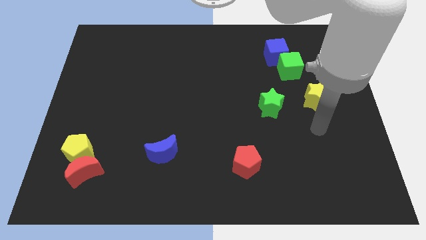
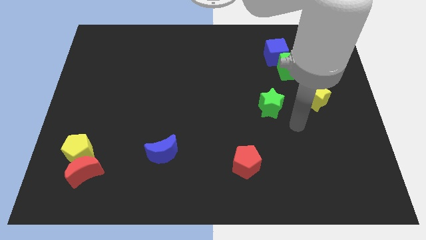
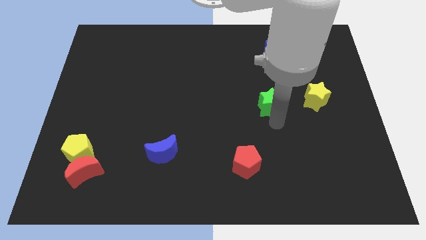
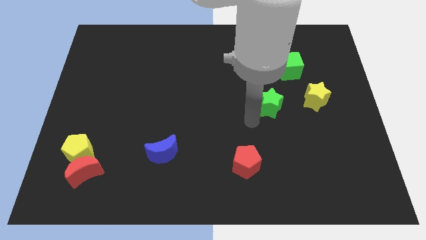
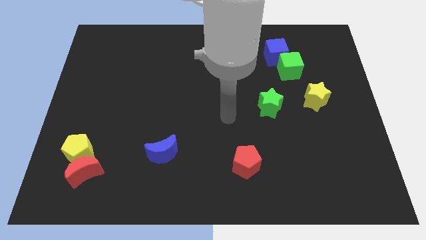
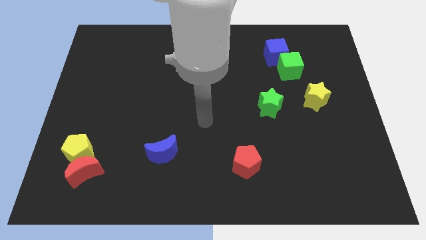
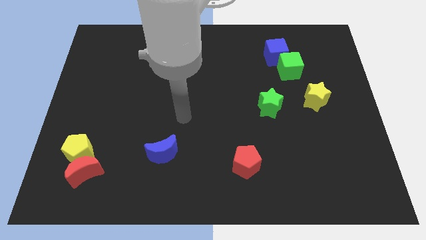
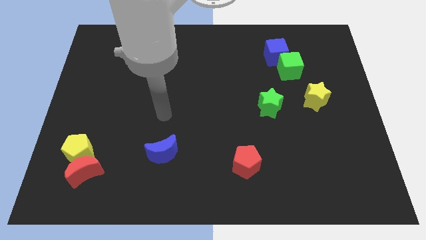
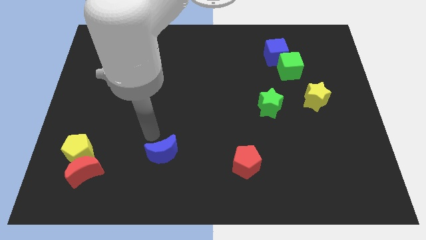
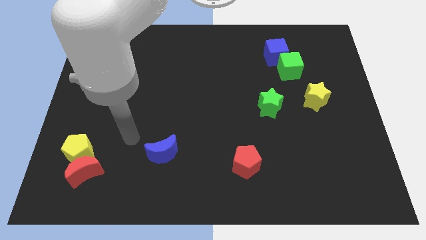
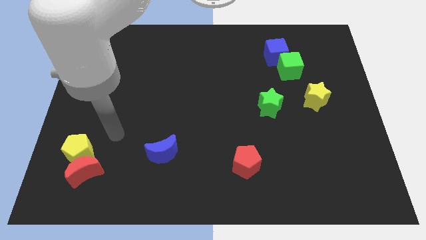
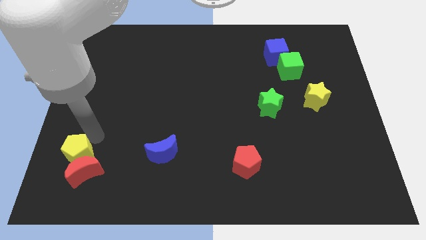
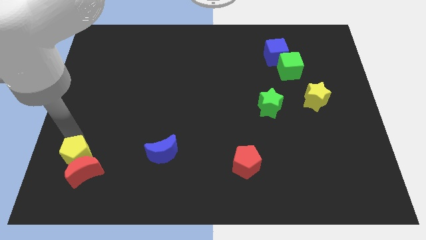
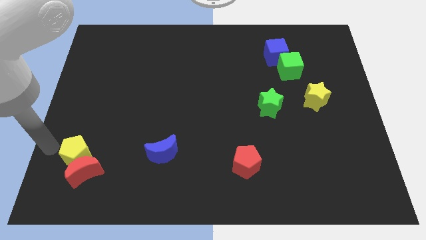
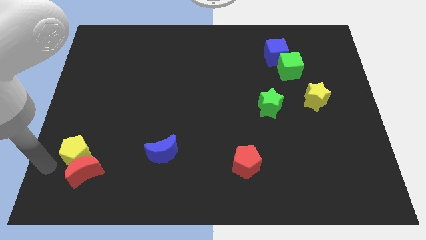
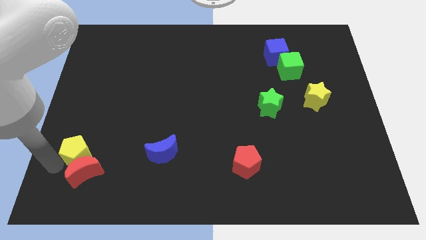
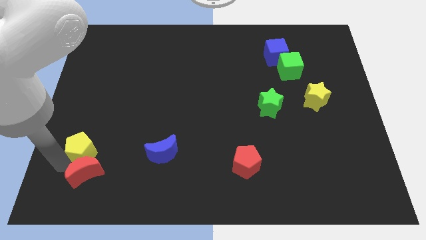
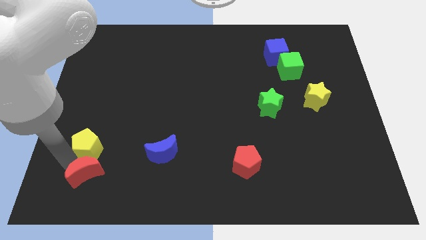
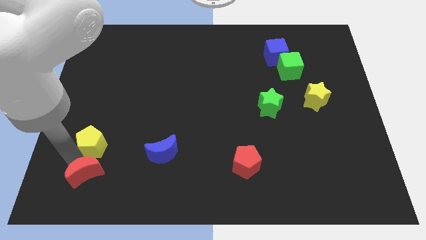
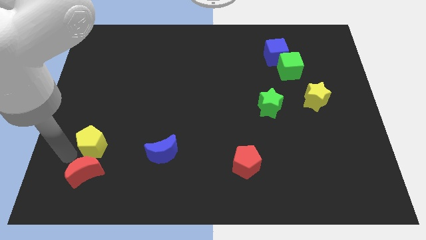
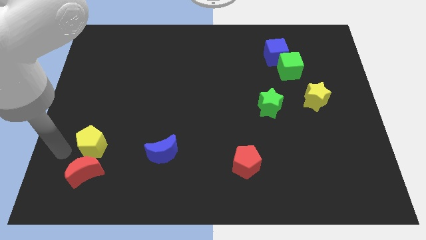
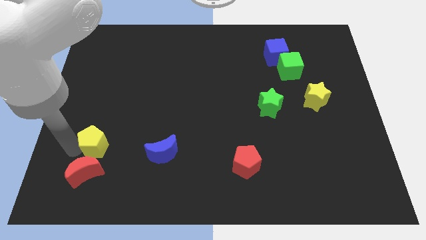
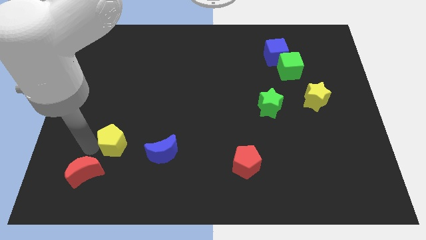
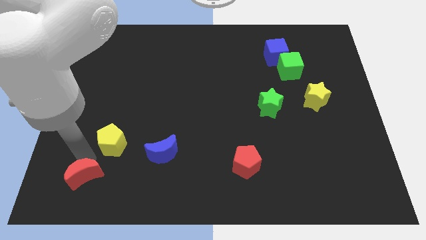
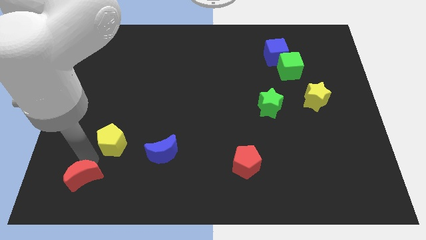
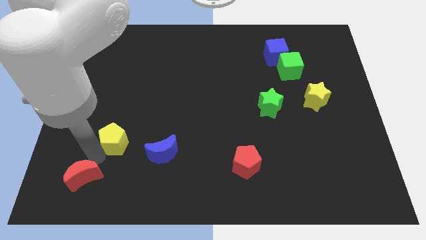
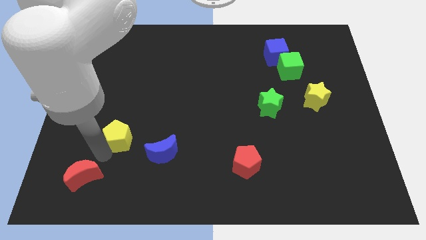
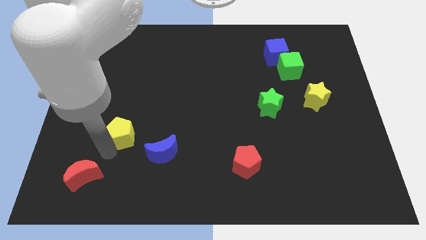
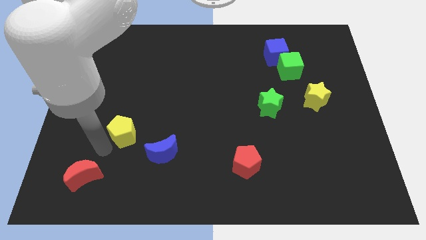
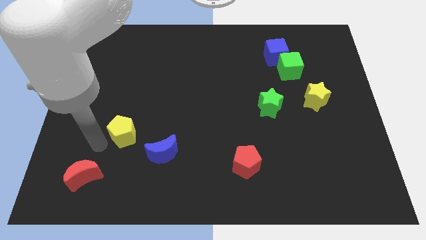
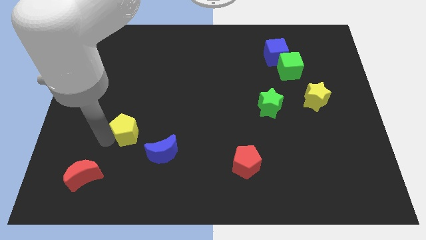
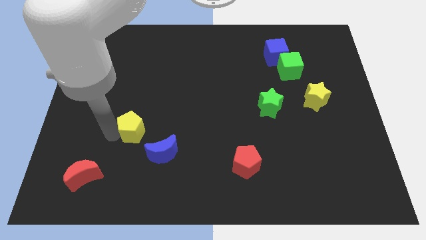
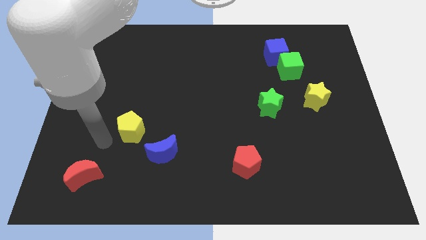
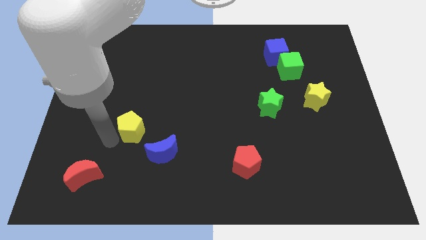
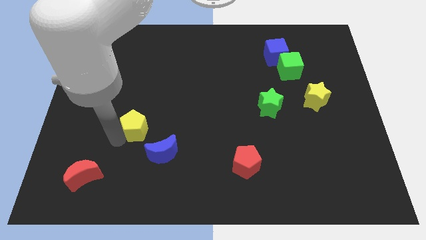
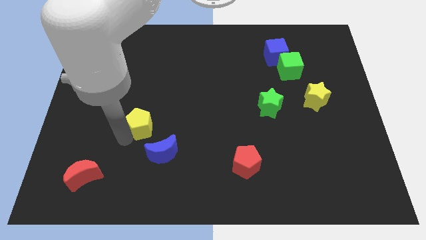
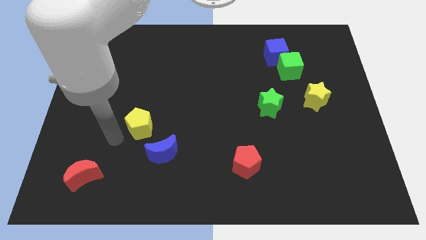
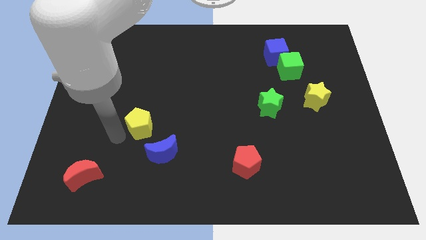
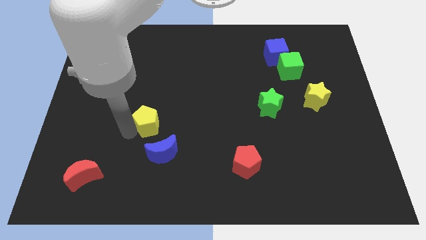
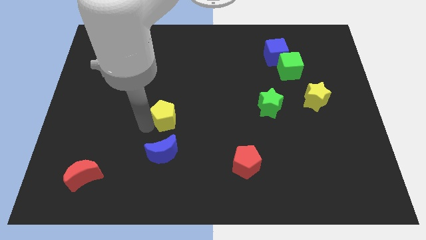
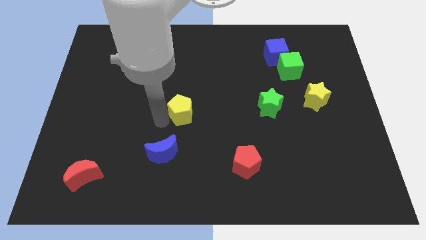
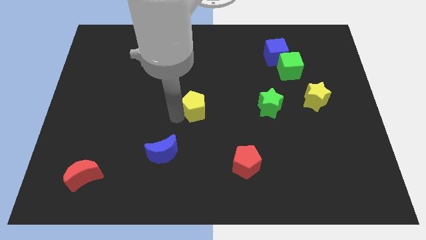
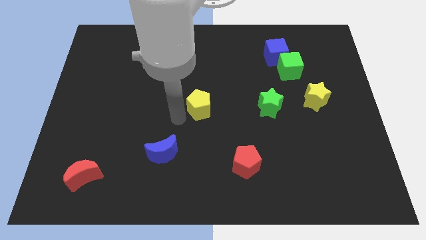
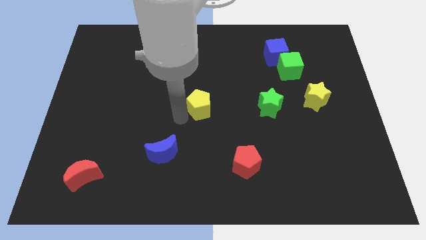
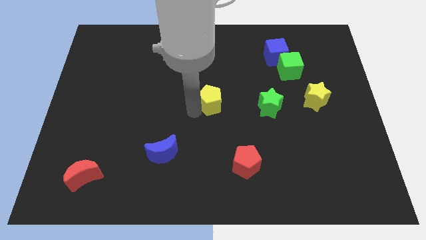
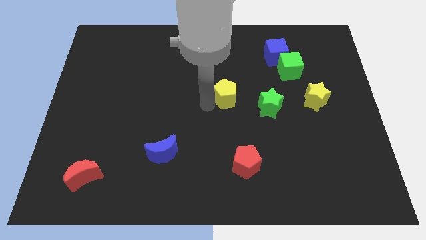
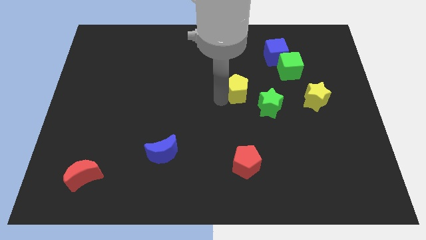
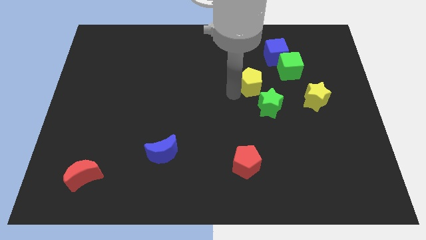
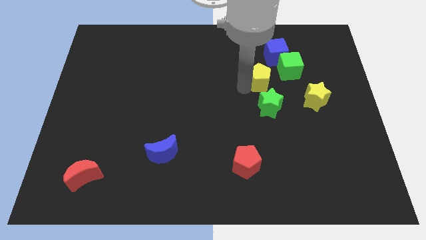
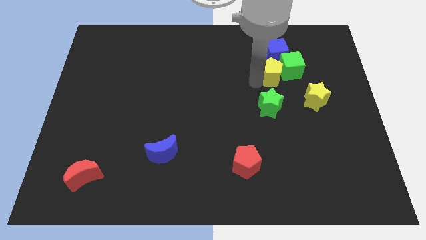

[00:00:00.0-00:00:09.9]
slide the yellow pentagon to the green cube

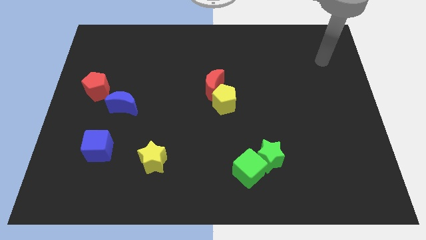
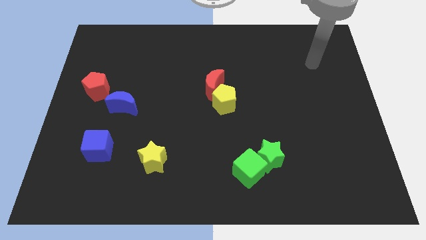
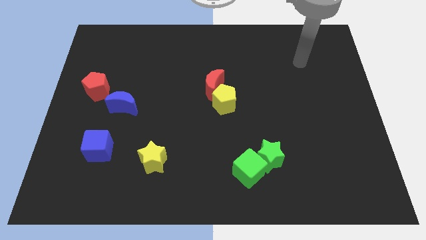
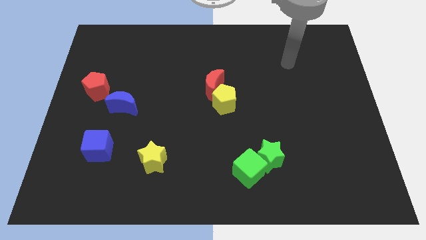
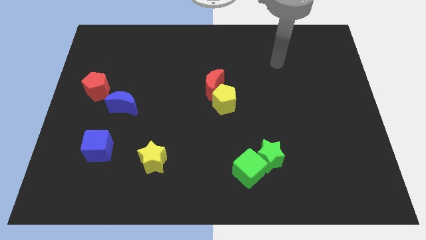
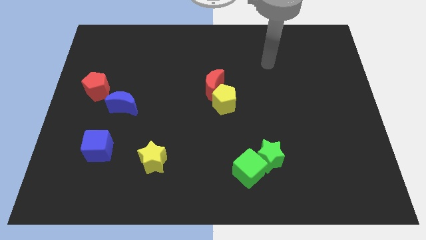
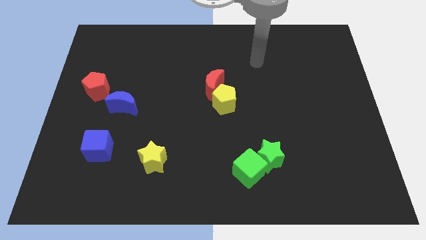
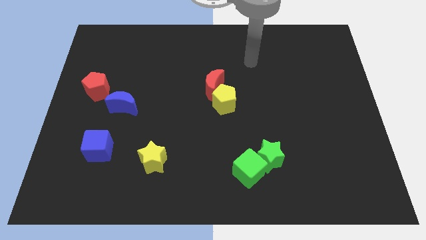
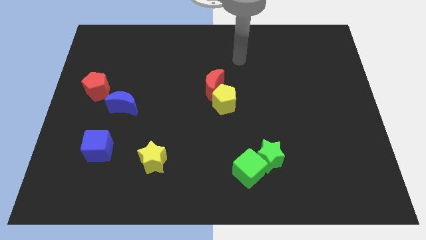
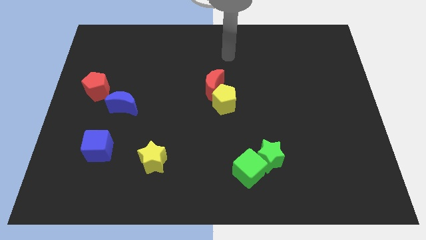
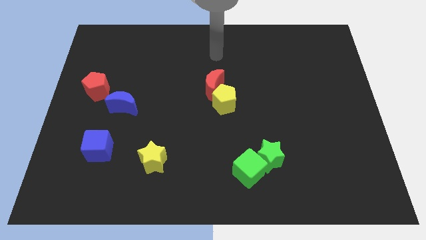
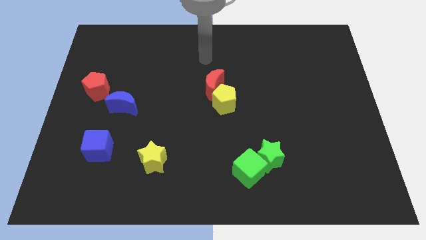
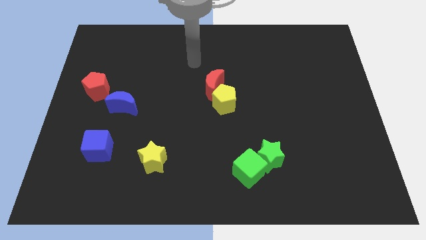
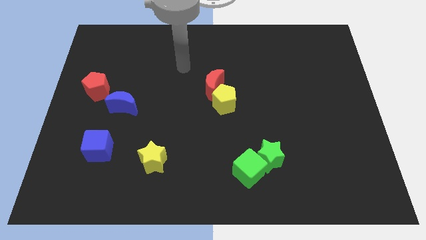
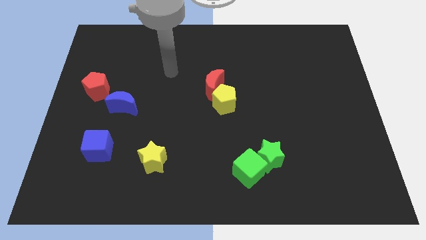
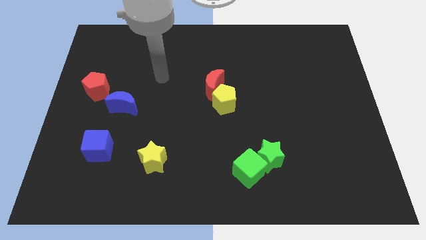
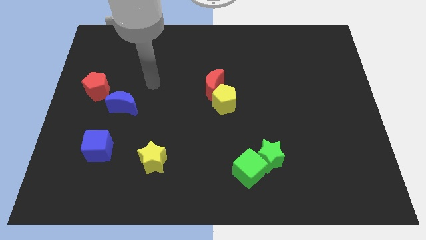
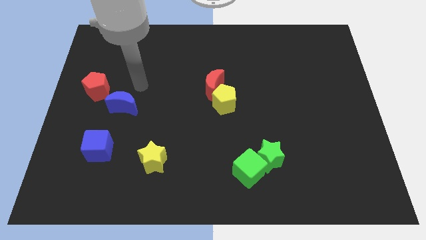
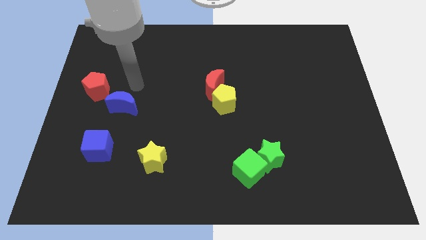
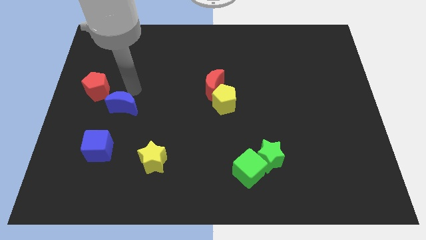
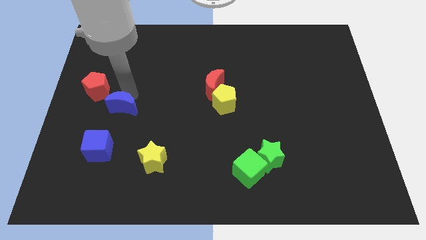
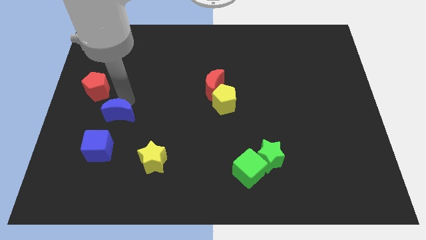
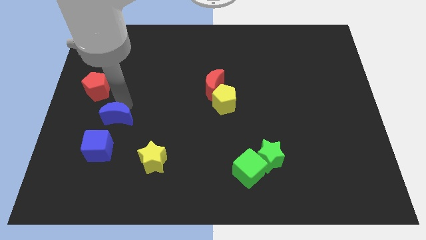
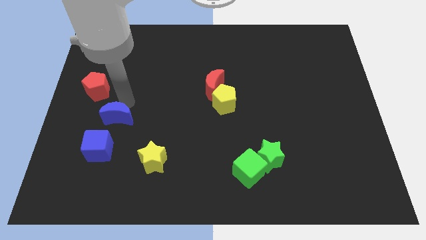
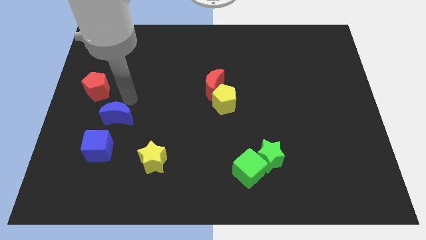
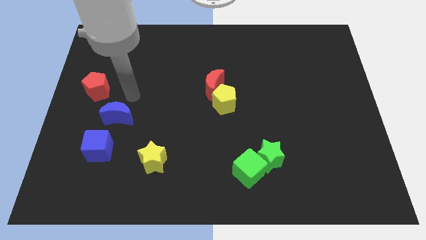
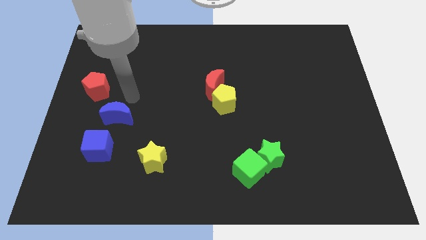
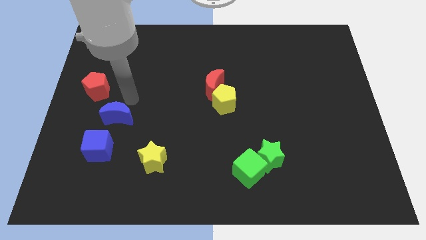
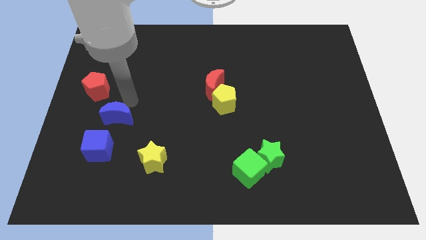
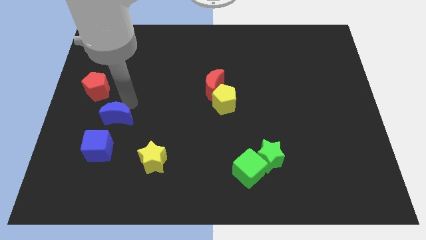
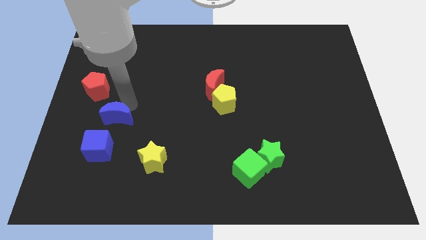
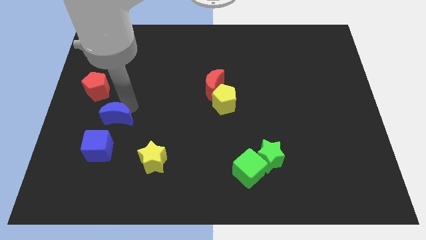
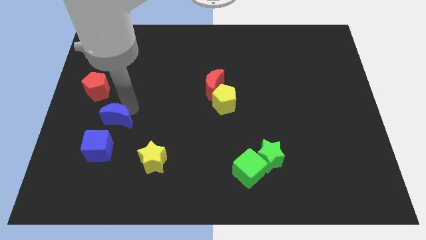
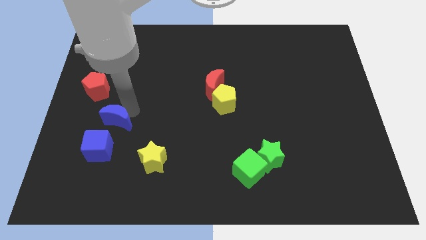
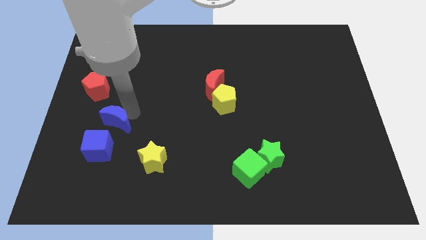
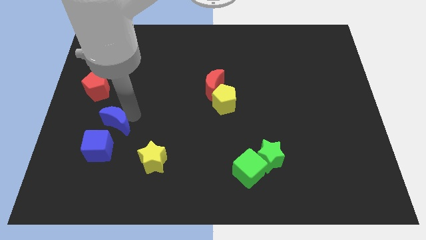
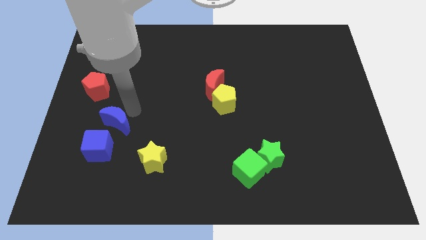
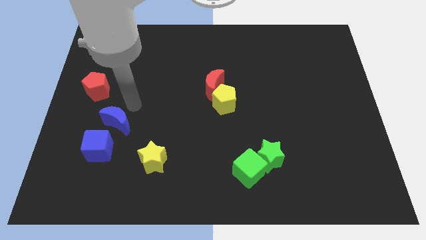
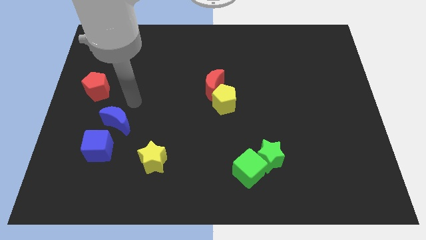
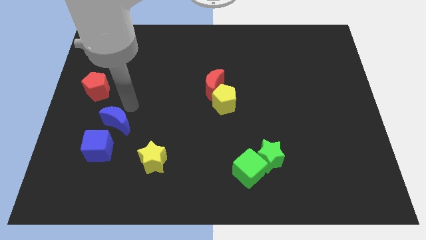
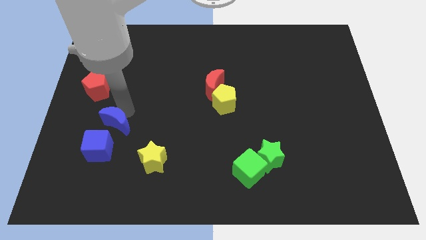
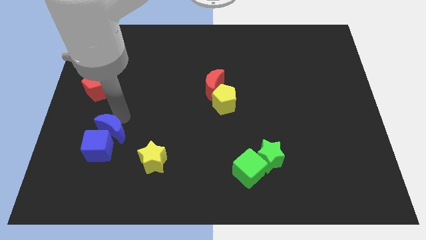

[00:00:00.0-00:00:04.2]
put the blue moon next to the blue cube
